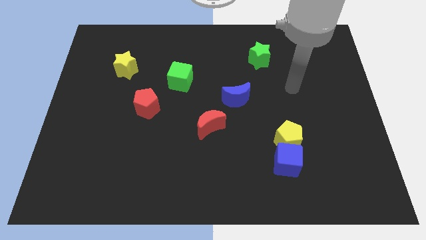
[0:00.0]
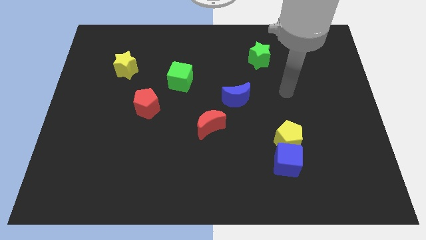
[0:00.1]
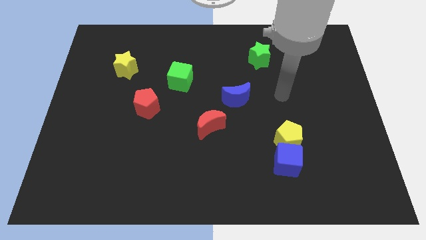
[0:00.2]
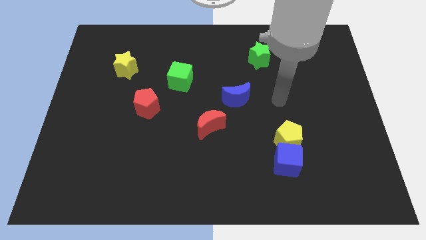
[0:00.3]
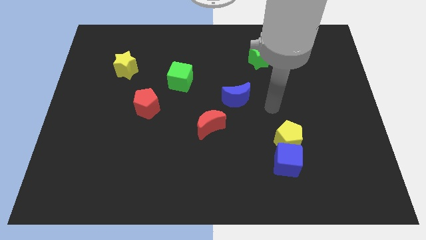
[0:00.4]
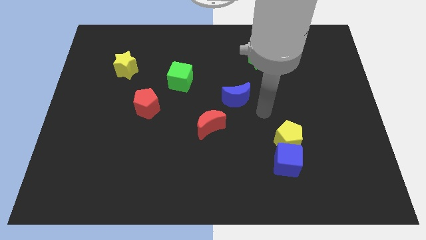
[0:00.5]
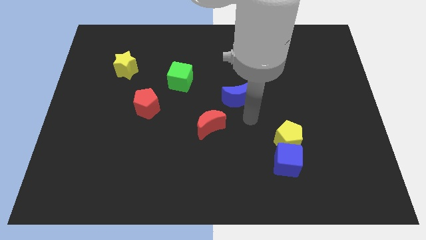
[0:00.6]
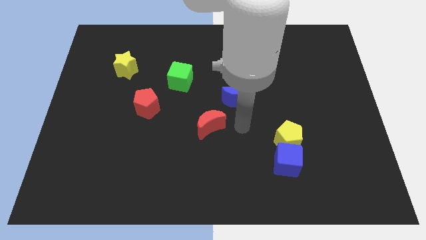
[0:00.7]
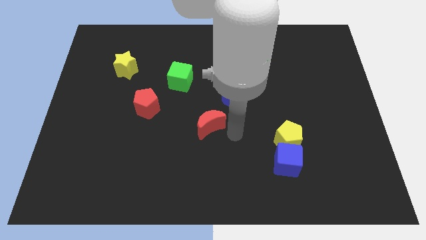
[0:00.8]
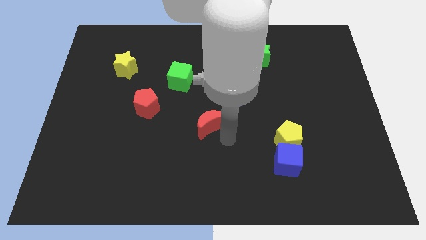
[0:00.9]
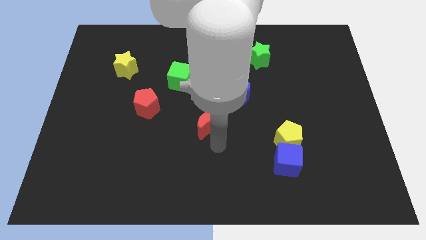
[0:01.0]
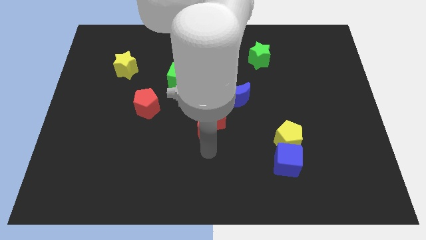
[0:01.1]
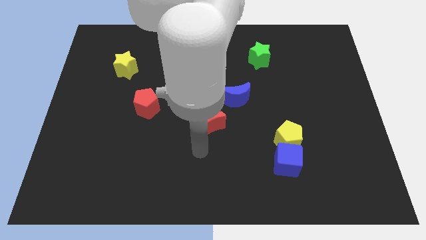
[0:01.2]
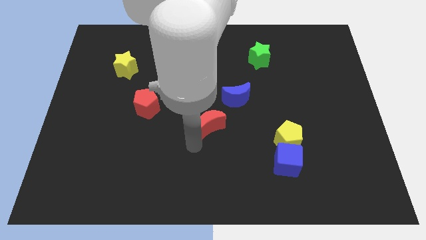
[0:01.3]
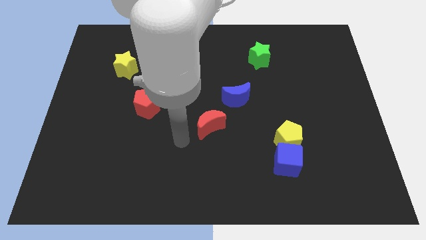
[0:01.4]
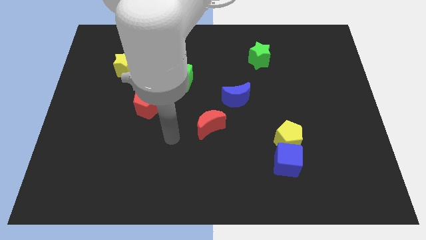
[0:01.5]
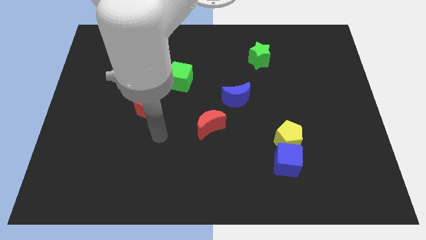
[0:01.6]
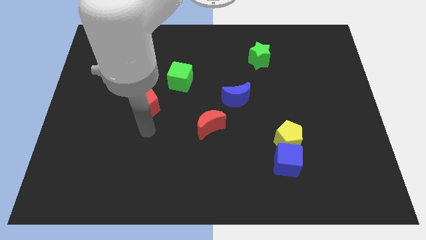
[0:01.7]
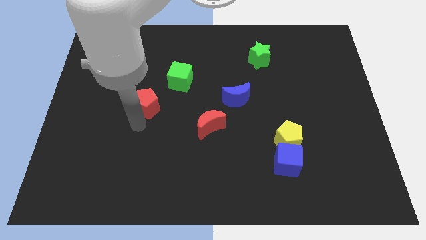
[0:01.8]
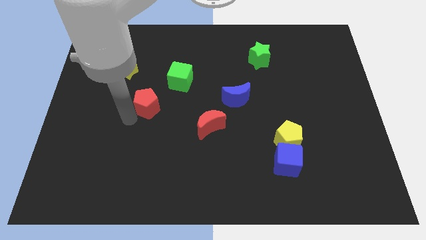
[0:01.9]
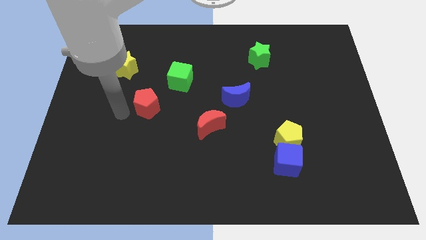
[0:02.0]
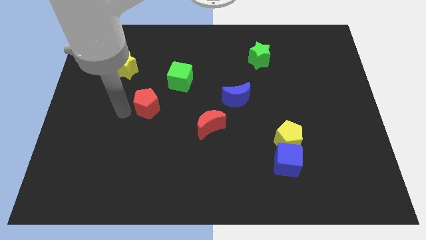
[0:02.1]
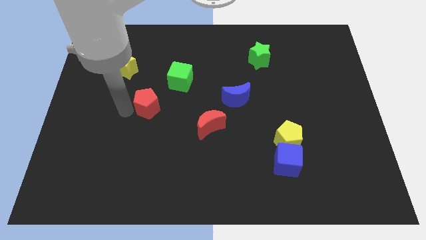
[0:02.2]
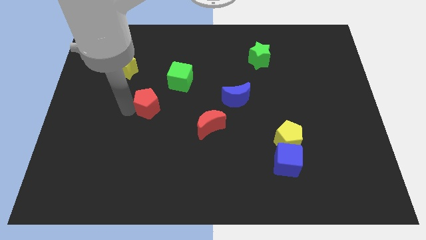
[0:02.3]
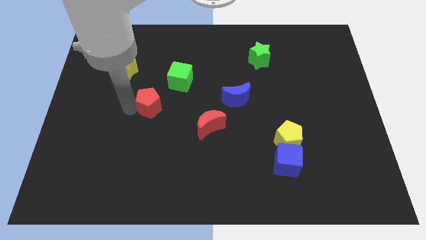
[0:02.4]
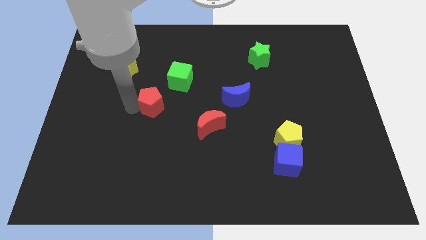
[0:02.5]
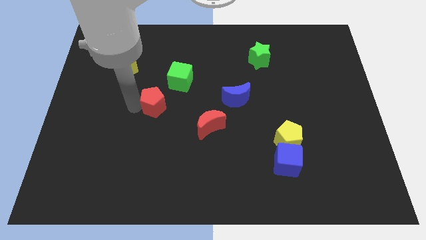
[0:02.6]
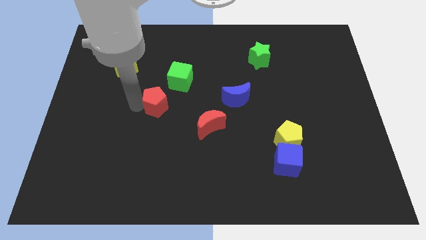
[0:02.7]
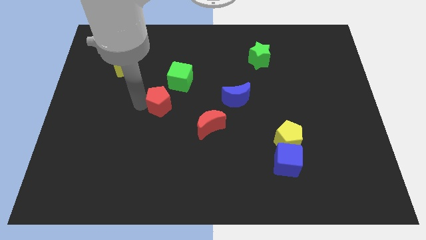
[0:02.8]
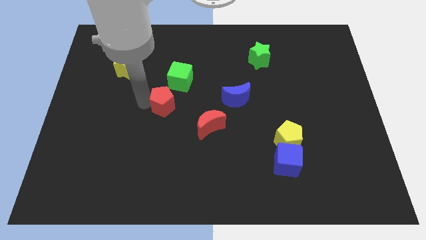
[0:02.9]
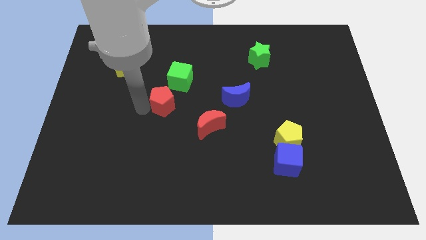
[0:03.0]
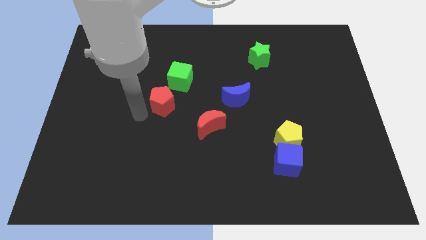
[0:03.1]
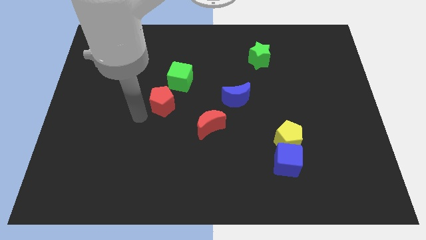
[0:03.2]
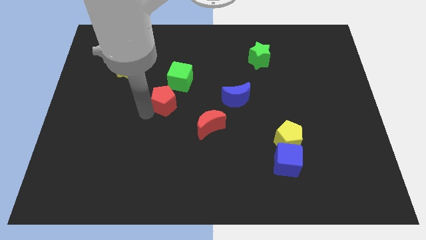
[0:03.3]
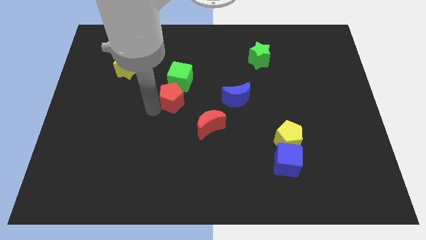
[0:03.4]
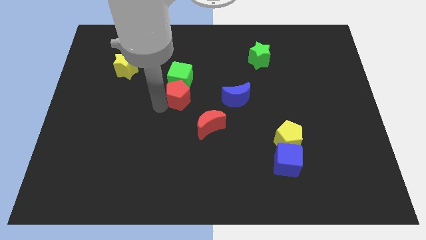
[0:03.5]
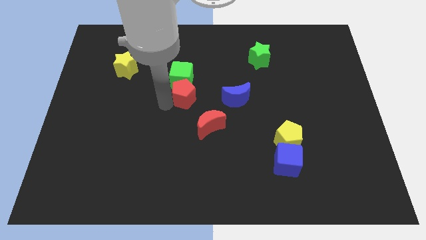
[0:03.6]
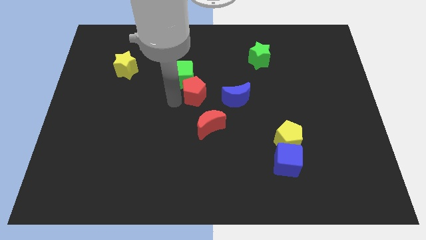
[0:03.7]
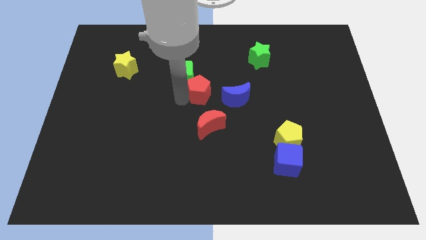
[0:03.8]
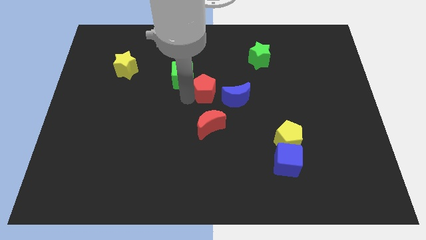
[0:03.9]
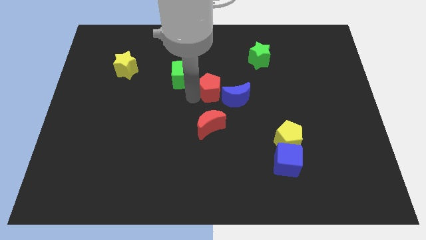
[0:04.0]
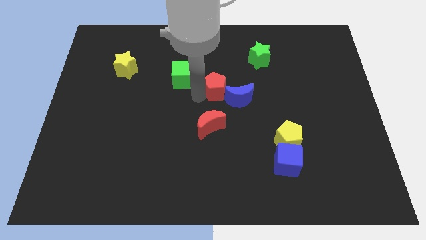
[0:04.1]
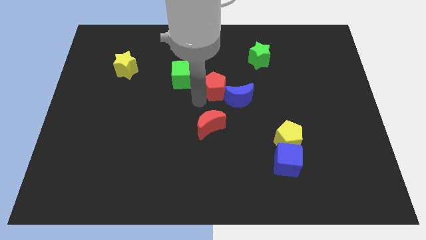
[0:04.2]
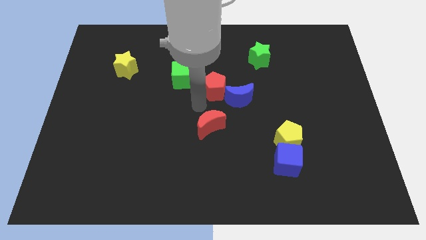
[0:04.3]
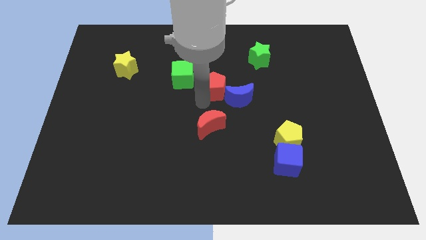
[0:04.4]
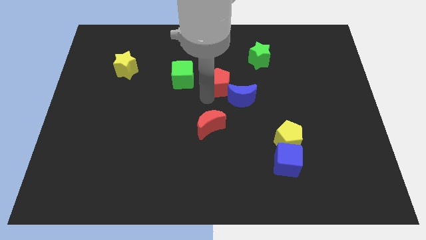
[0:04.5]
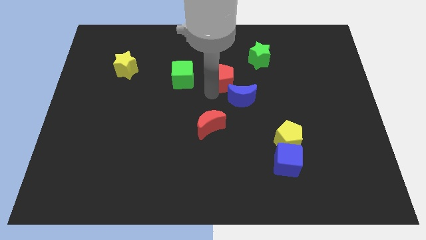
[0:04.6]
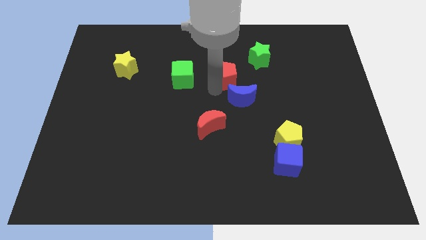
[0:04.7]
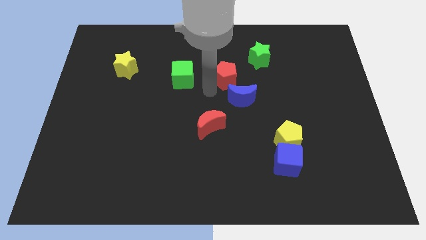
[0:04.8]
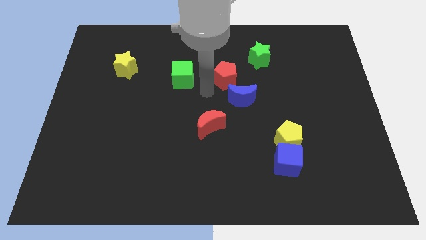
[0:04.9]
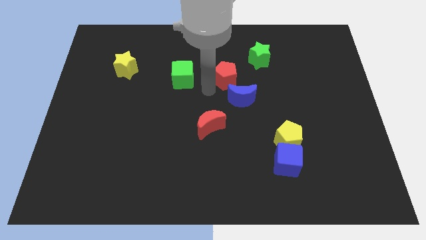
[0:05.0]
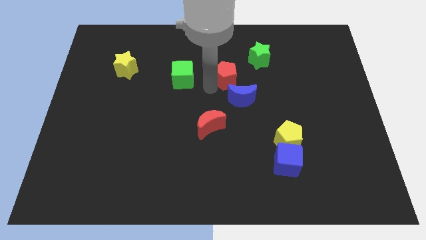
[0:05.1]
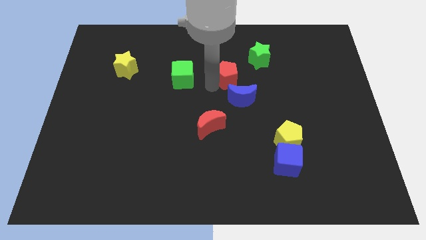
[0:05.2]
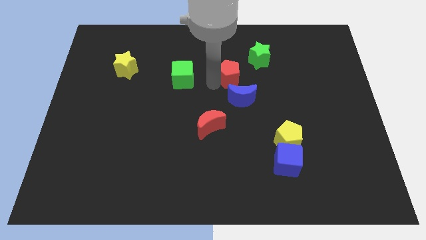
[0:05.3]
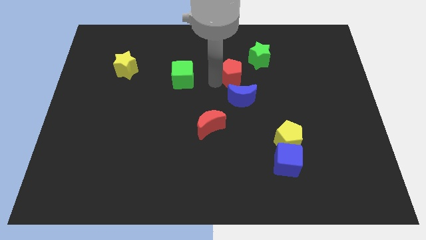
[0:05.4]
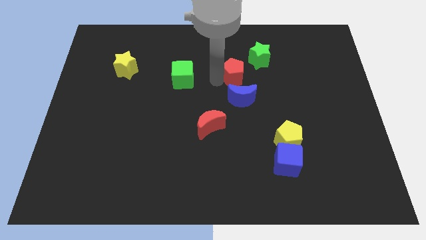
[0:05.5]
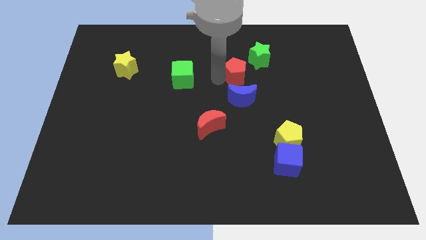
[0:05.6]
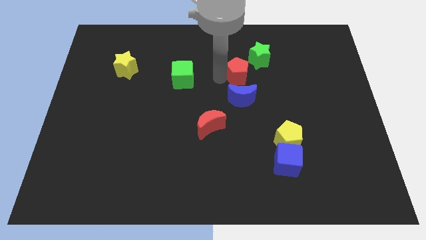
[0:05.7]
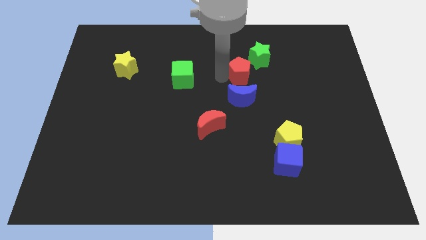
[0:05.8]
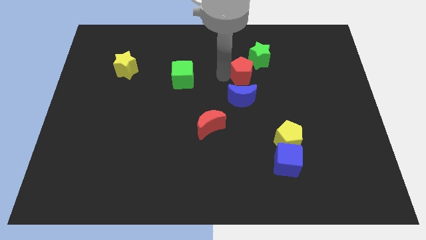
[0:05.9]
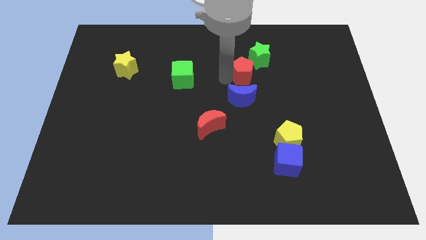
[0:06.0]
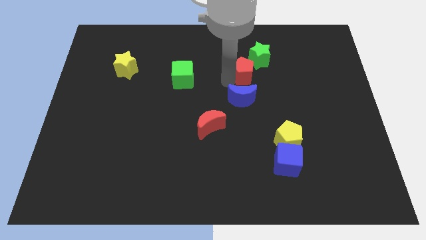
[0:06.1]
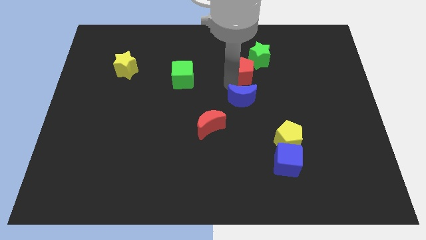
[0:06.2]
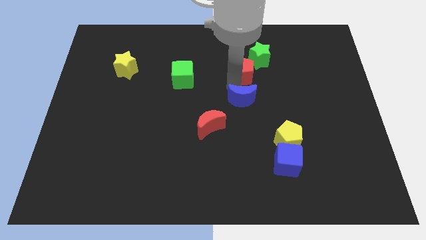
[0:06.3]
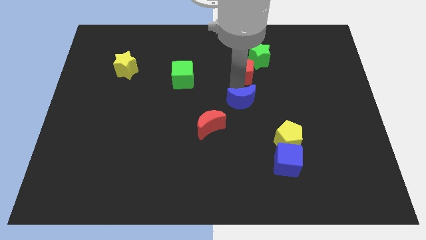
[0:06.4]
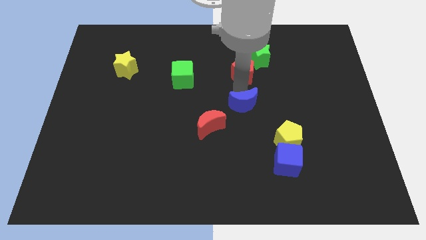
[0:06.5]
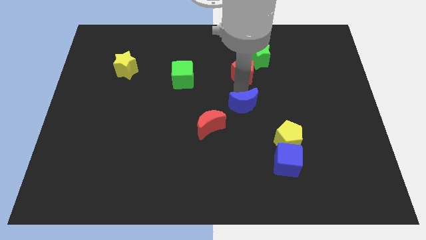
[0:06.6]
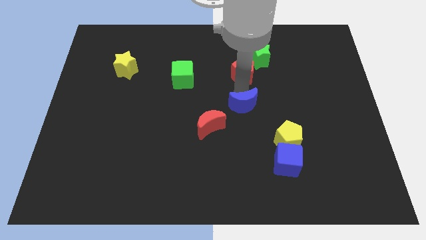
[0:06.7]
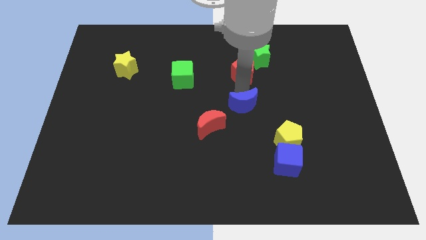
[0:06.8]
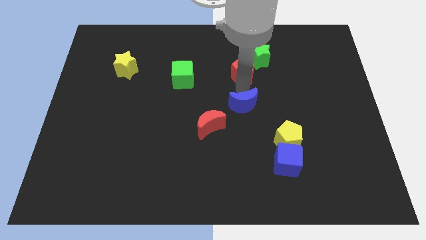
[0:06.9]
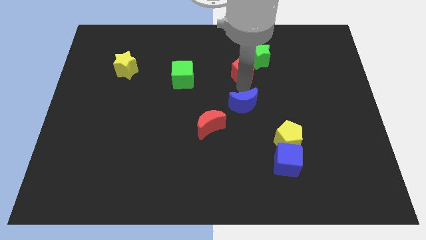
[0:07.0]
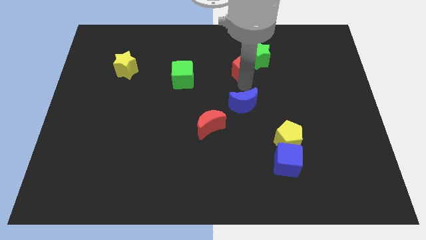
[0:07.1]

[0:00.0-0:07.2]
slide the red pentagon close to the green star
